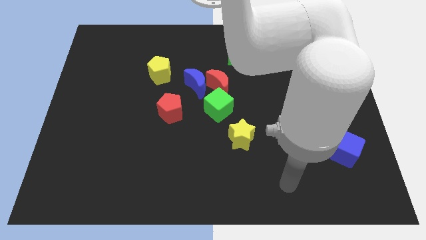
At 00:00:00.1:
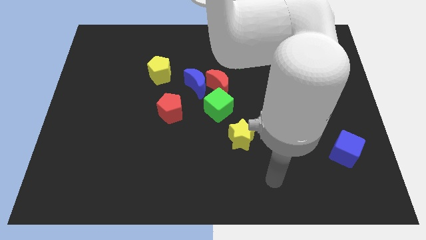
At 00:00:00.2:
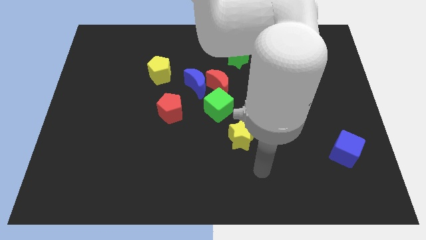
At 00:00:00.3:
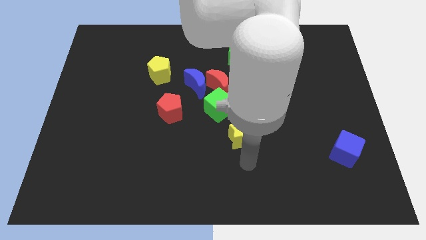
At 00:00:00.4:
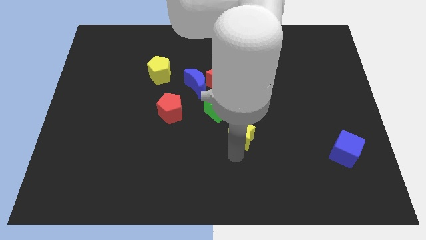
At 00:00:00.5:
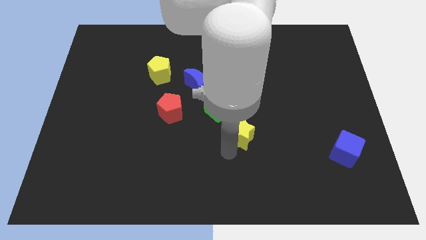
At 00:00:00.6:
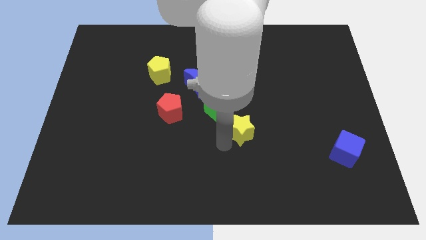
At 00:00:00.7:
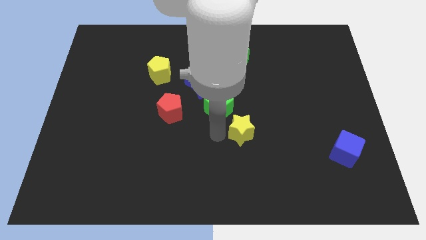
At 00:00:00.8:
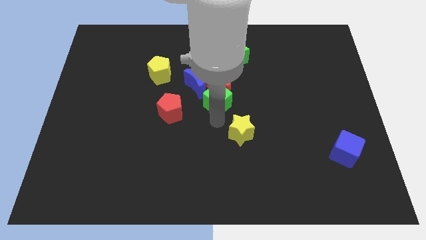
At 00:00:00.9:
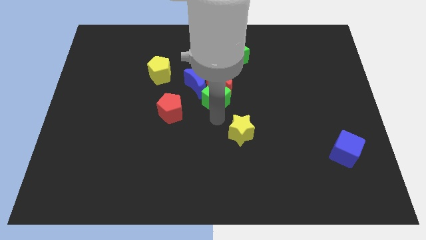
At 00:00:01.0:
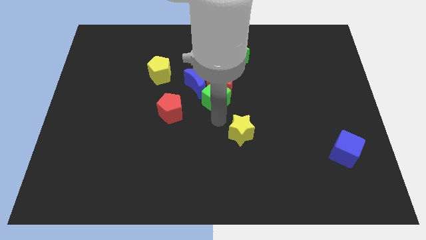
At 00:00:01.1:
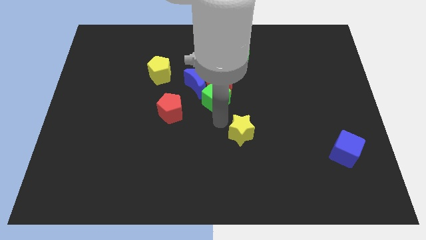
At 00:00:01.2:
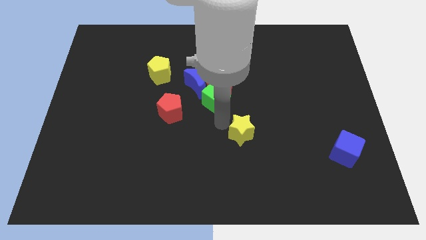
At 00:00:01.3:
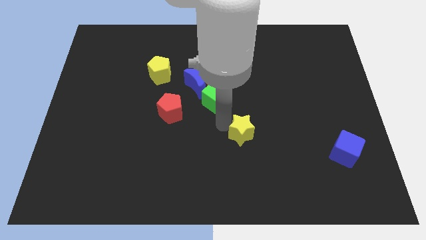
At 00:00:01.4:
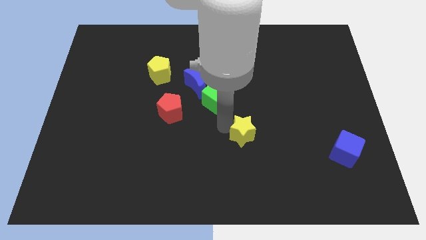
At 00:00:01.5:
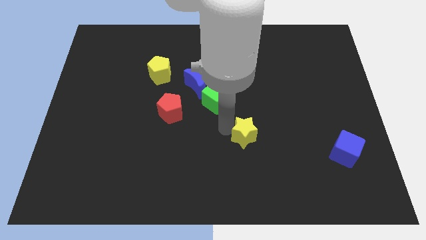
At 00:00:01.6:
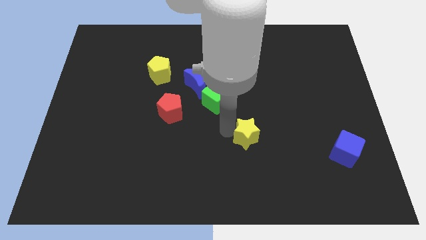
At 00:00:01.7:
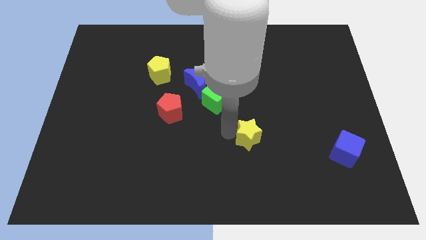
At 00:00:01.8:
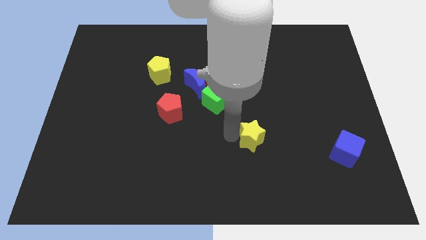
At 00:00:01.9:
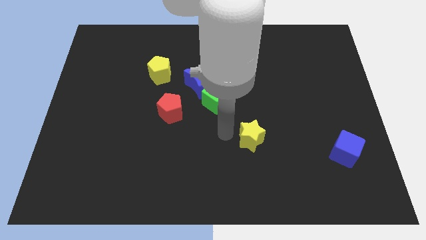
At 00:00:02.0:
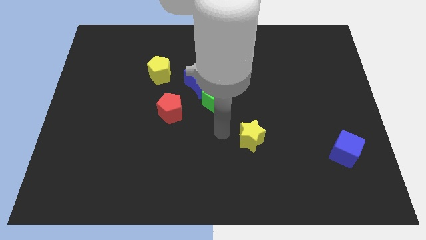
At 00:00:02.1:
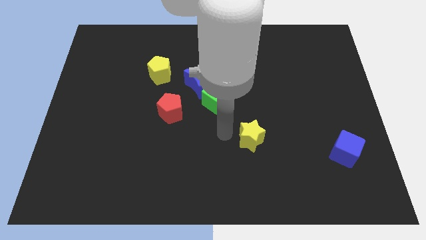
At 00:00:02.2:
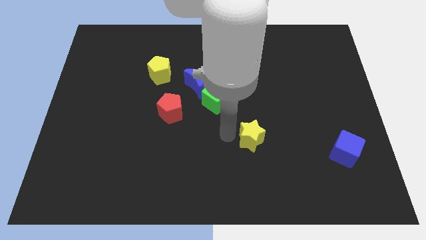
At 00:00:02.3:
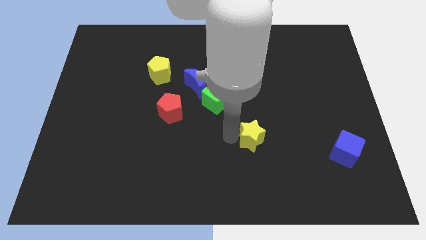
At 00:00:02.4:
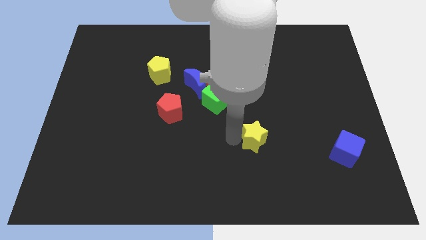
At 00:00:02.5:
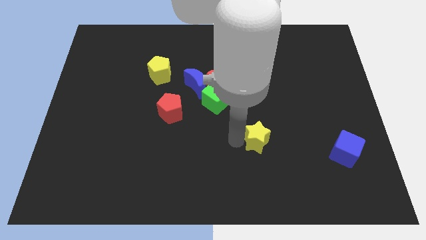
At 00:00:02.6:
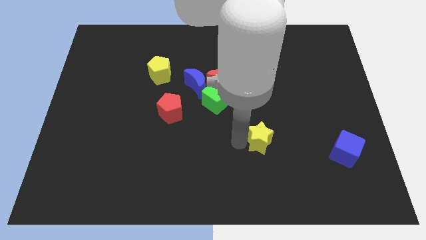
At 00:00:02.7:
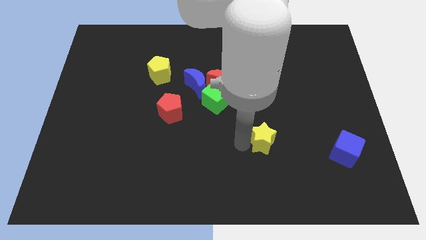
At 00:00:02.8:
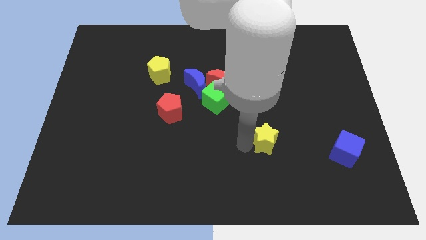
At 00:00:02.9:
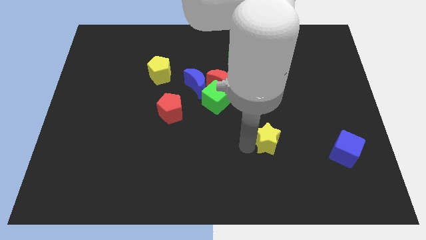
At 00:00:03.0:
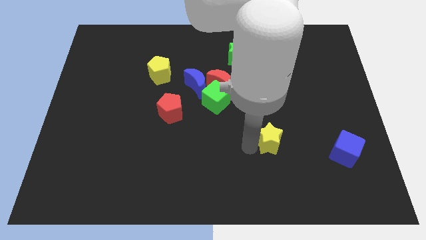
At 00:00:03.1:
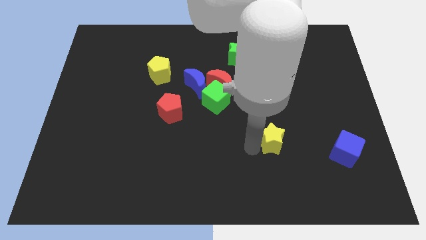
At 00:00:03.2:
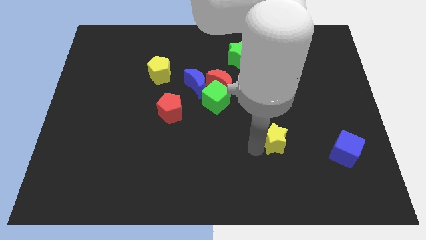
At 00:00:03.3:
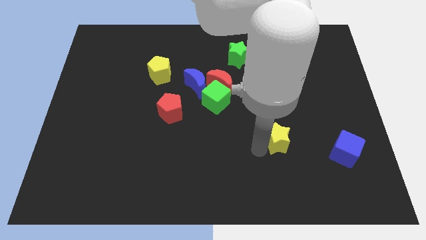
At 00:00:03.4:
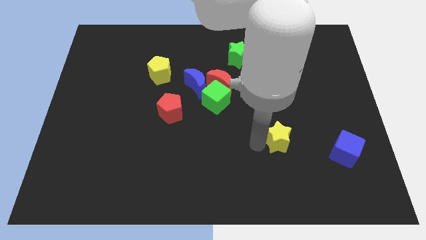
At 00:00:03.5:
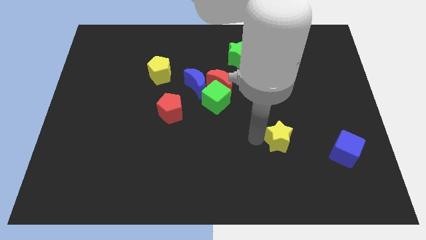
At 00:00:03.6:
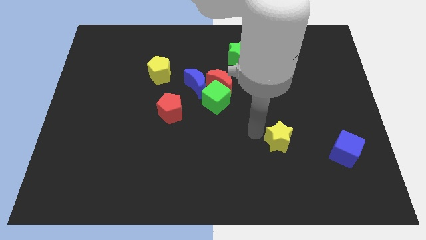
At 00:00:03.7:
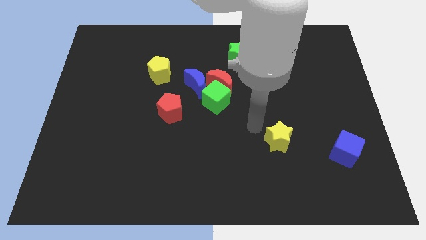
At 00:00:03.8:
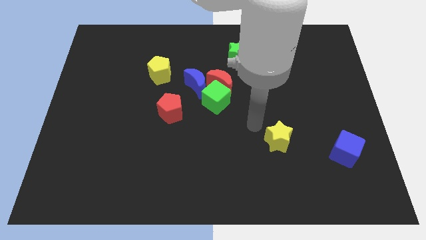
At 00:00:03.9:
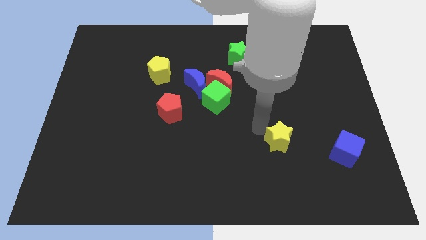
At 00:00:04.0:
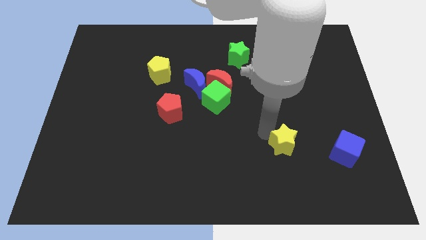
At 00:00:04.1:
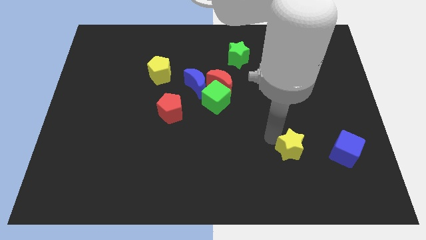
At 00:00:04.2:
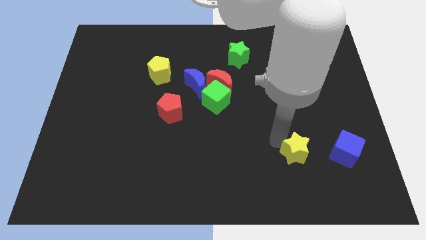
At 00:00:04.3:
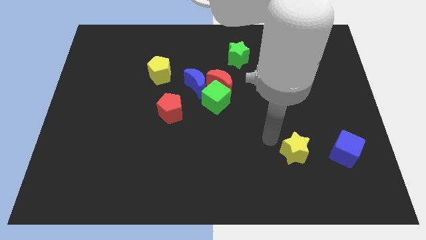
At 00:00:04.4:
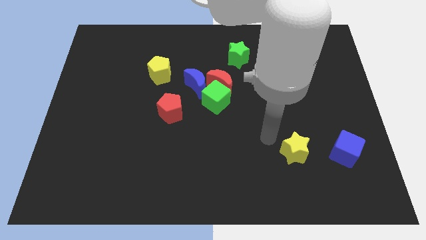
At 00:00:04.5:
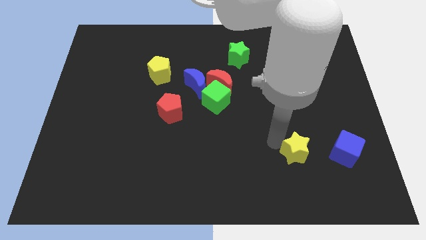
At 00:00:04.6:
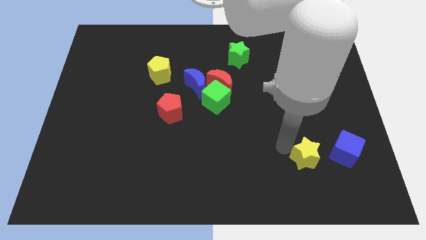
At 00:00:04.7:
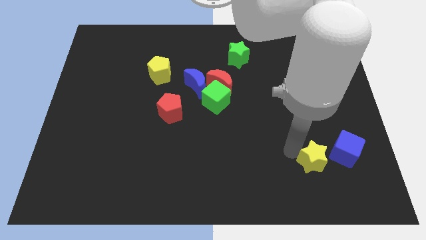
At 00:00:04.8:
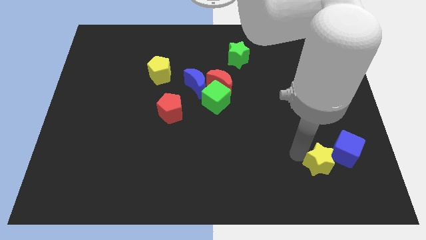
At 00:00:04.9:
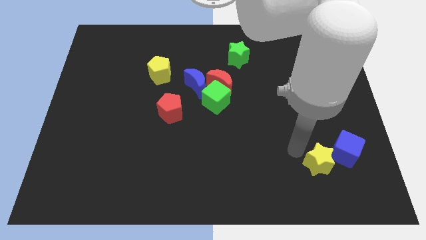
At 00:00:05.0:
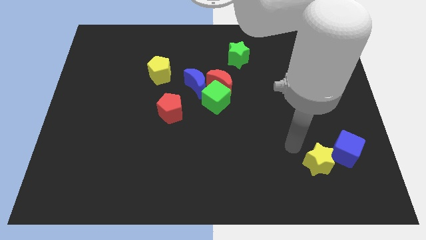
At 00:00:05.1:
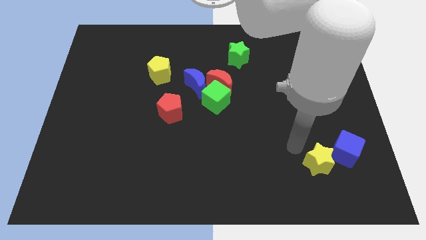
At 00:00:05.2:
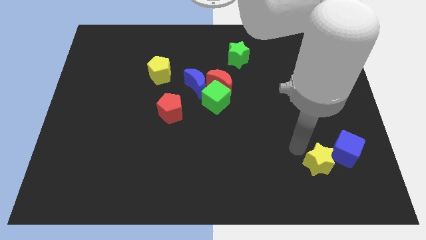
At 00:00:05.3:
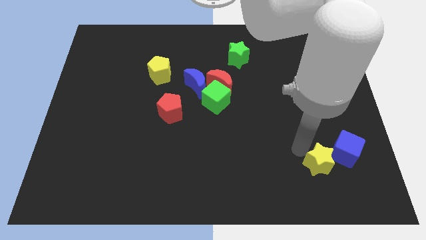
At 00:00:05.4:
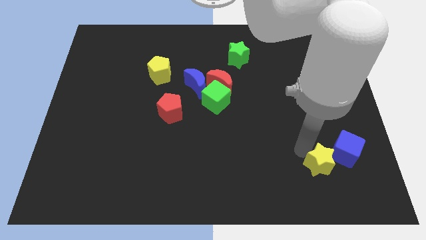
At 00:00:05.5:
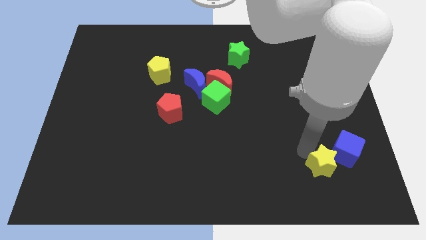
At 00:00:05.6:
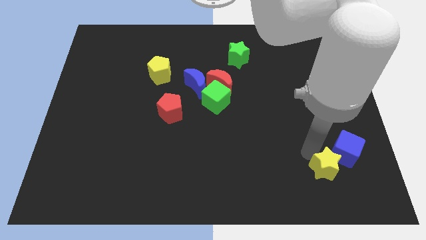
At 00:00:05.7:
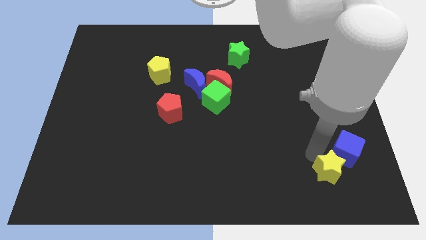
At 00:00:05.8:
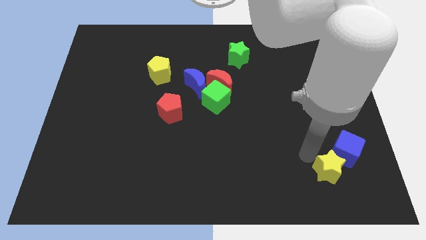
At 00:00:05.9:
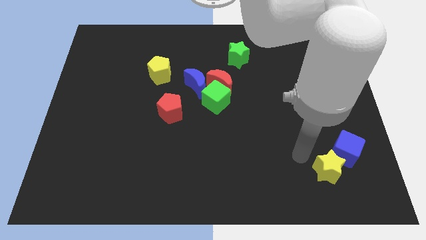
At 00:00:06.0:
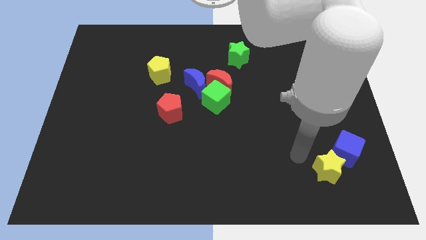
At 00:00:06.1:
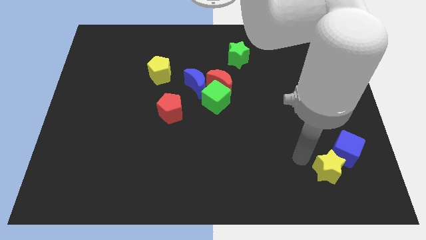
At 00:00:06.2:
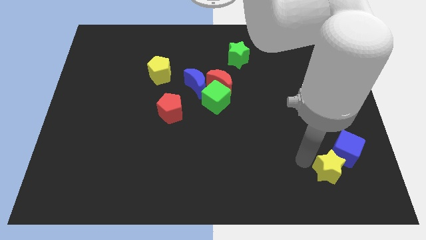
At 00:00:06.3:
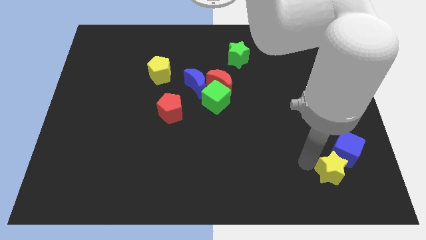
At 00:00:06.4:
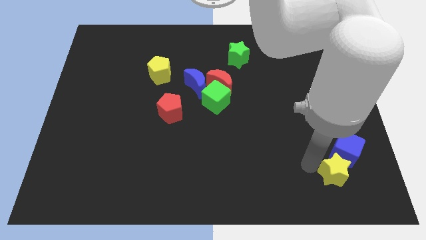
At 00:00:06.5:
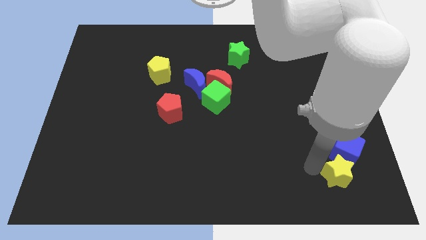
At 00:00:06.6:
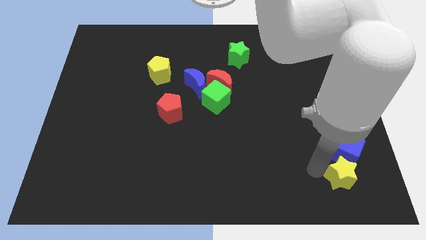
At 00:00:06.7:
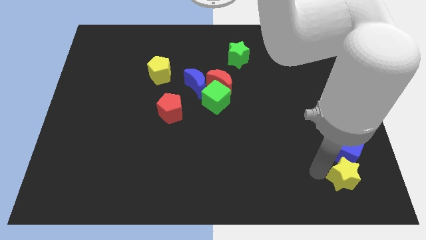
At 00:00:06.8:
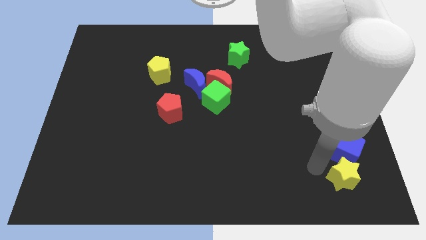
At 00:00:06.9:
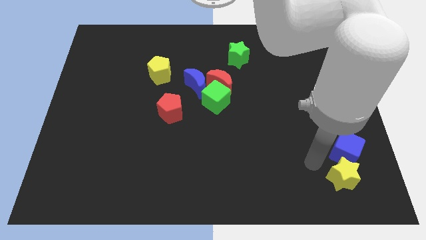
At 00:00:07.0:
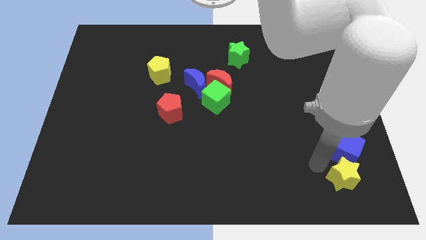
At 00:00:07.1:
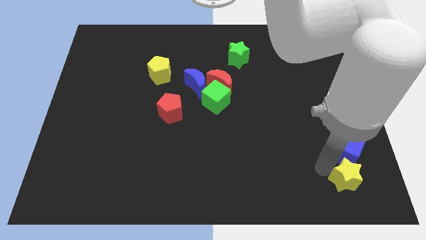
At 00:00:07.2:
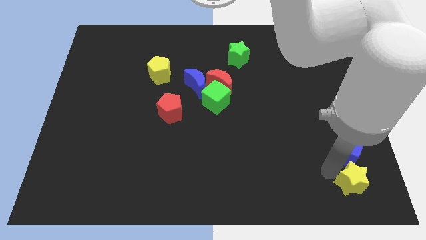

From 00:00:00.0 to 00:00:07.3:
put the yellow star to the bottom right corner
